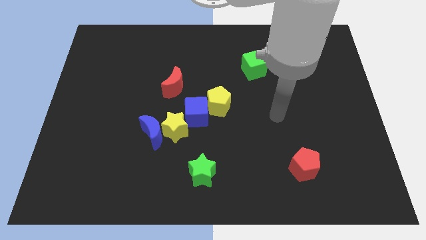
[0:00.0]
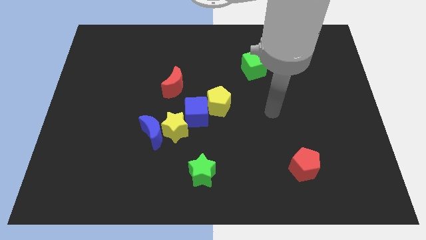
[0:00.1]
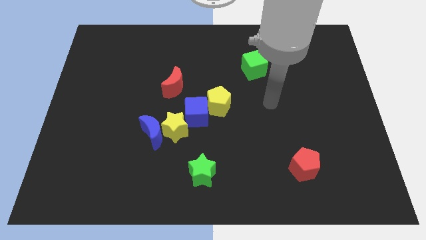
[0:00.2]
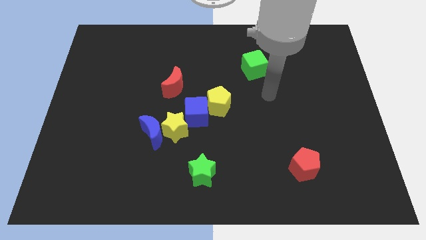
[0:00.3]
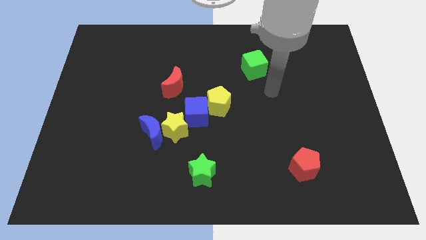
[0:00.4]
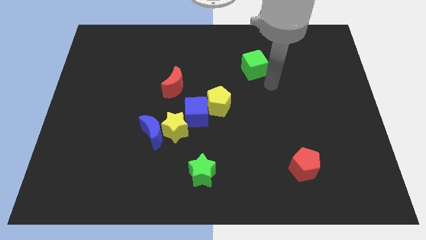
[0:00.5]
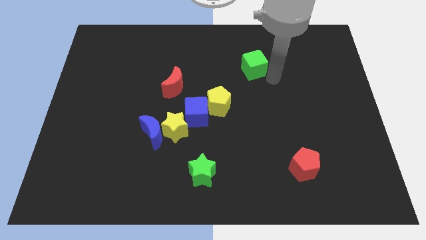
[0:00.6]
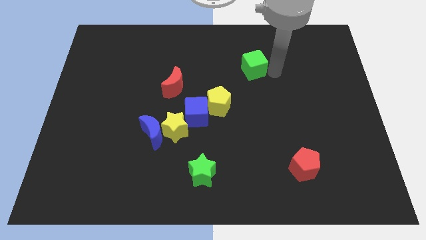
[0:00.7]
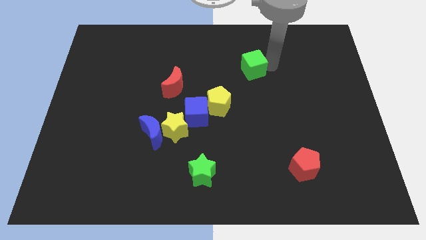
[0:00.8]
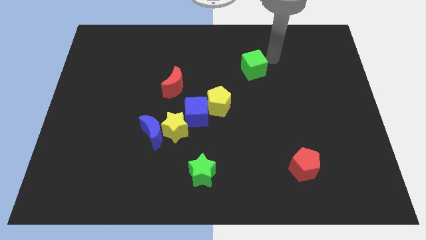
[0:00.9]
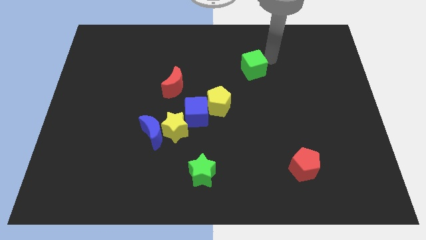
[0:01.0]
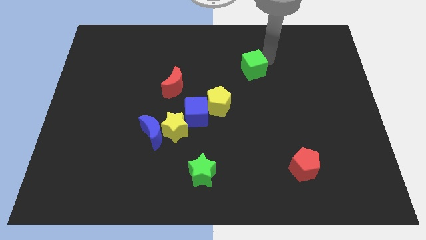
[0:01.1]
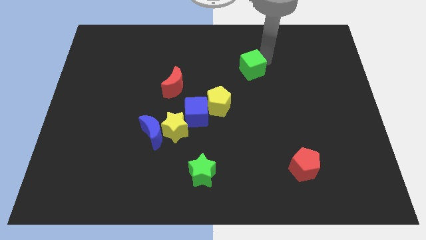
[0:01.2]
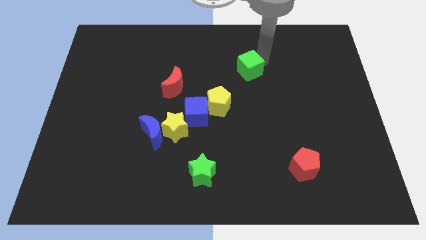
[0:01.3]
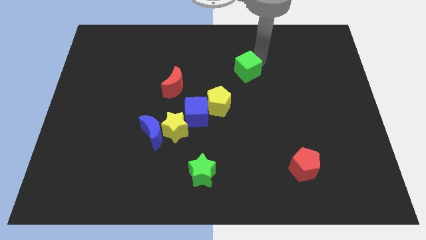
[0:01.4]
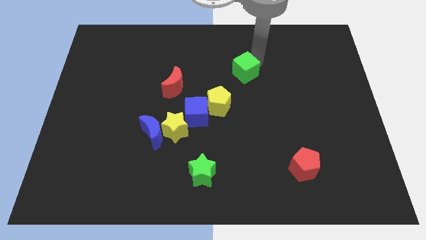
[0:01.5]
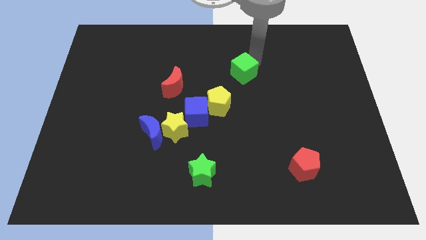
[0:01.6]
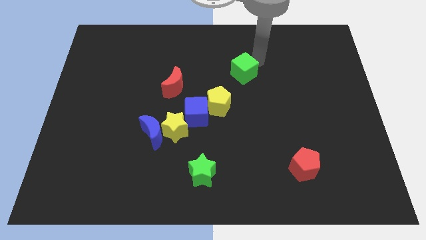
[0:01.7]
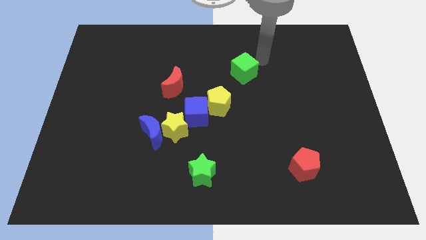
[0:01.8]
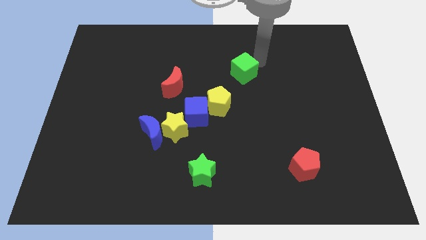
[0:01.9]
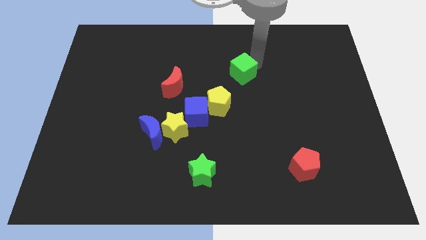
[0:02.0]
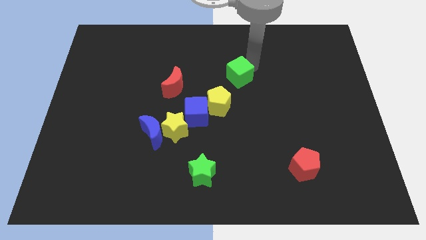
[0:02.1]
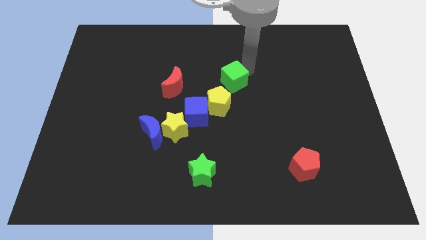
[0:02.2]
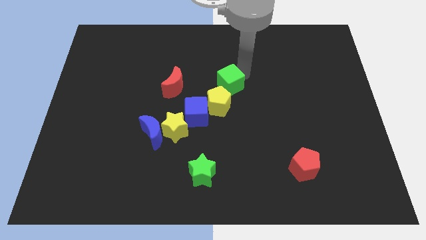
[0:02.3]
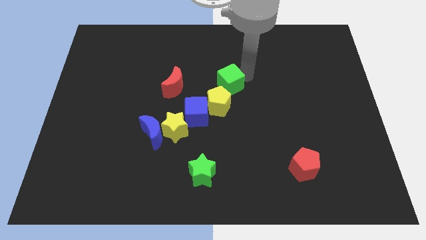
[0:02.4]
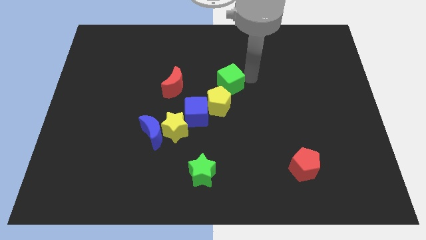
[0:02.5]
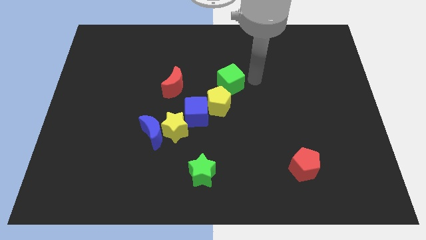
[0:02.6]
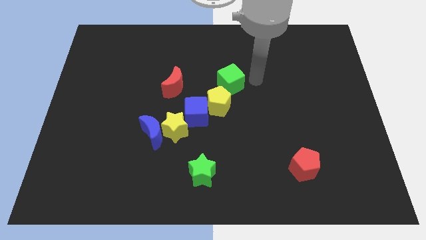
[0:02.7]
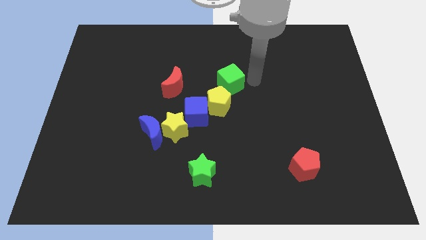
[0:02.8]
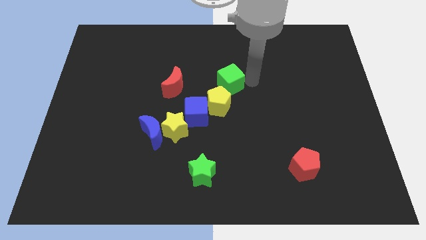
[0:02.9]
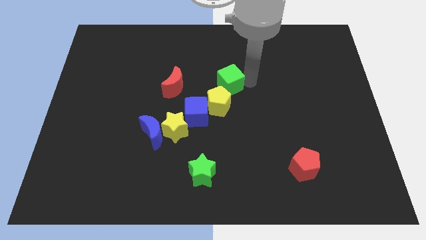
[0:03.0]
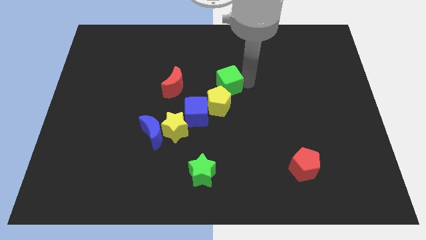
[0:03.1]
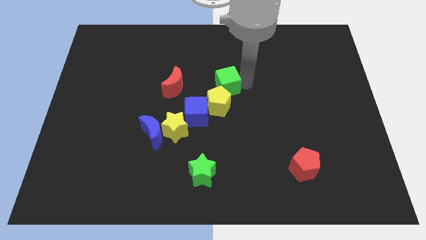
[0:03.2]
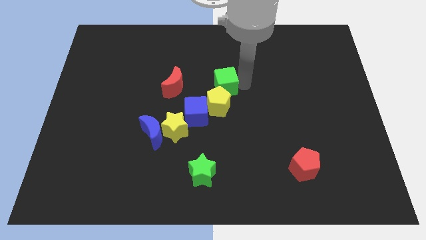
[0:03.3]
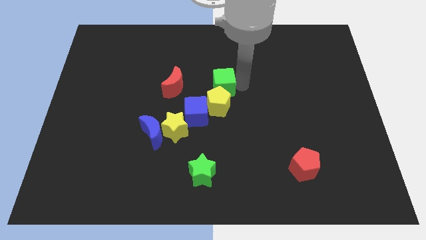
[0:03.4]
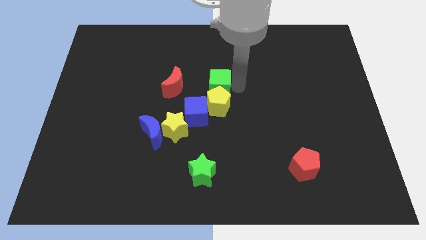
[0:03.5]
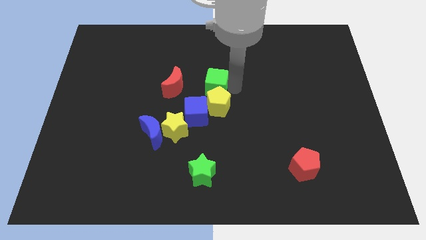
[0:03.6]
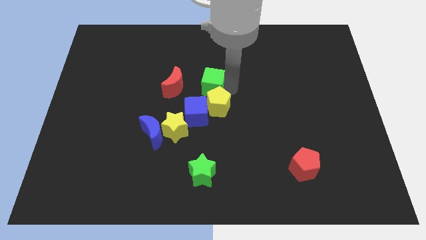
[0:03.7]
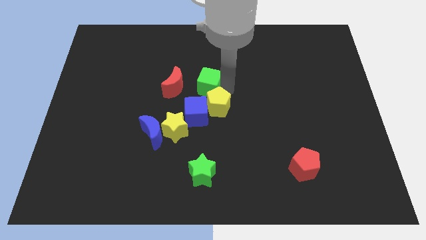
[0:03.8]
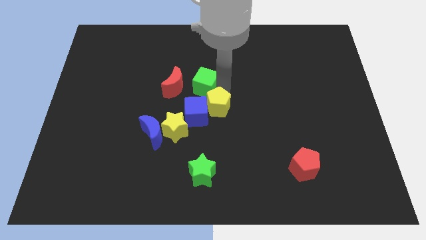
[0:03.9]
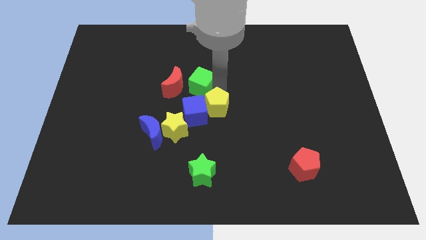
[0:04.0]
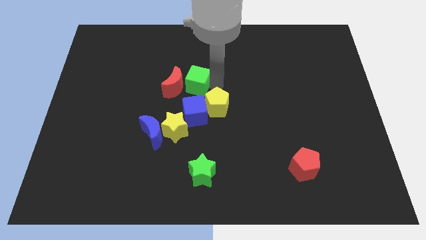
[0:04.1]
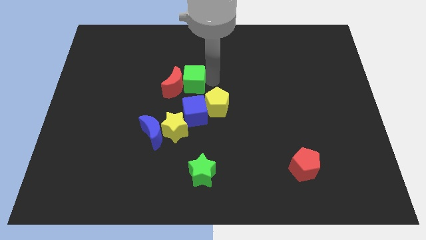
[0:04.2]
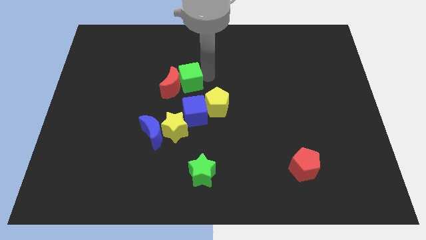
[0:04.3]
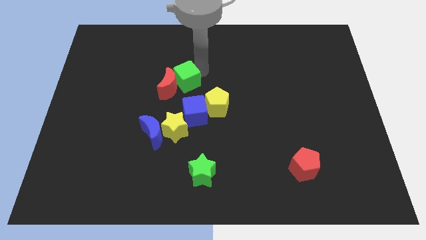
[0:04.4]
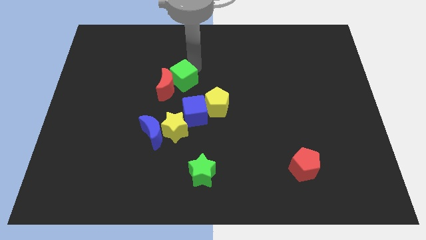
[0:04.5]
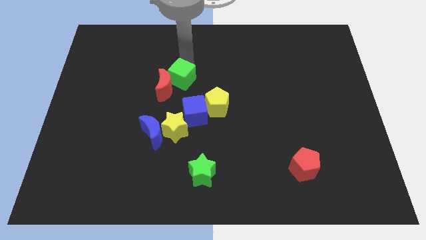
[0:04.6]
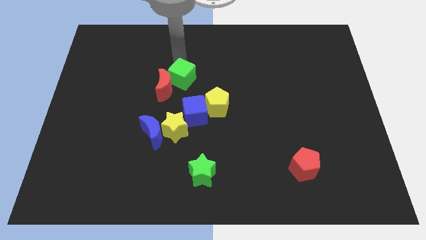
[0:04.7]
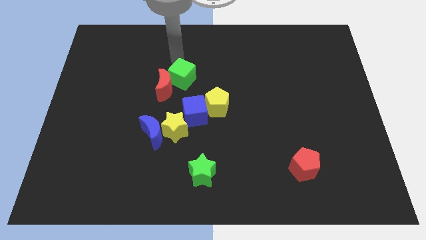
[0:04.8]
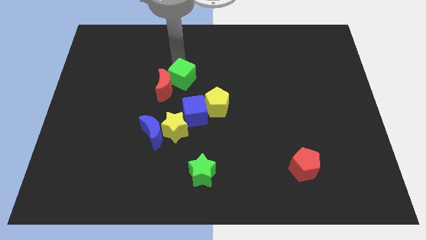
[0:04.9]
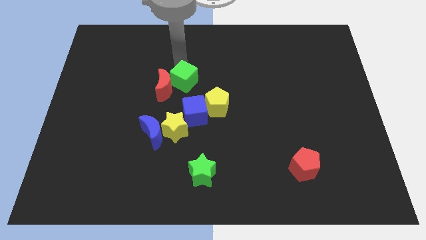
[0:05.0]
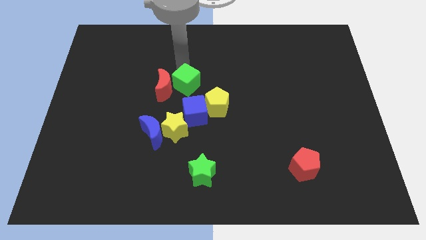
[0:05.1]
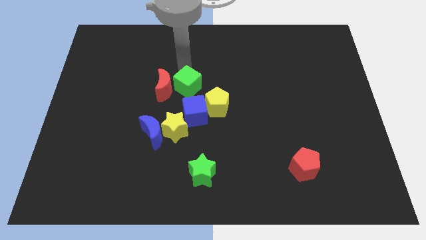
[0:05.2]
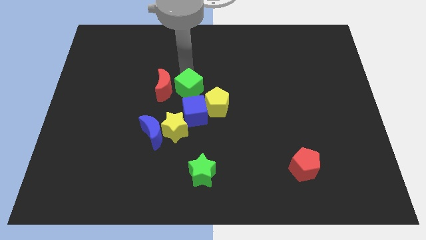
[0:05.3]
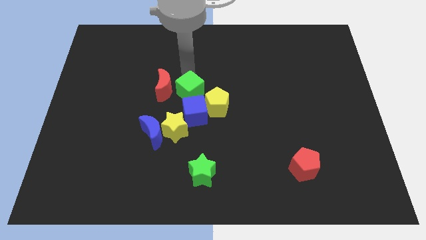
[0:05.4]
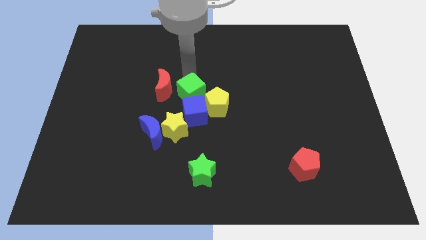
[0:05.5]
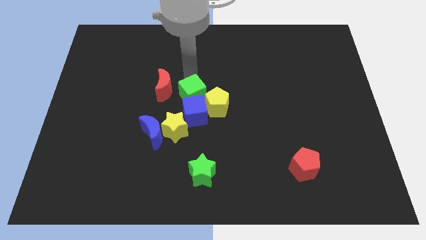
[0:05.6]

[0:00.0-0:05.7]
move the green cube close to the blue cube

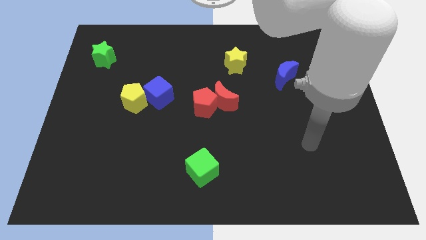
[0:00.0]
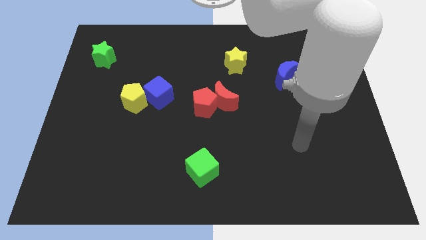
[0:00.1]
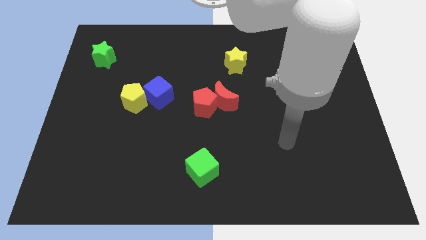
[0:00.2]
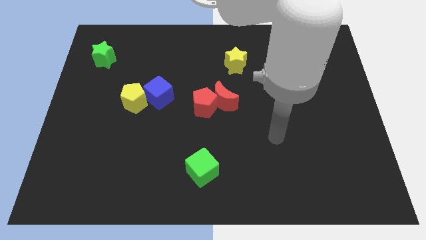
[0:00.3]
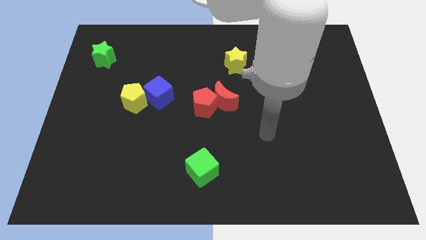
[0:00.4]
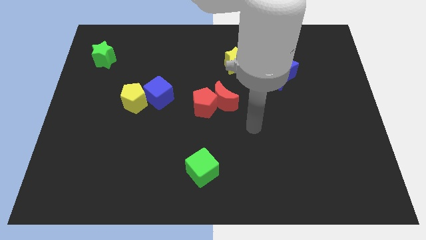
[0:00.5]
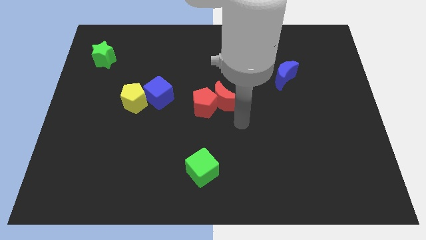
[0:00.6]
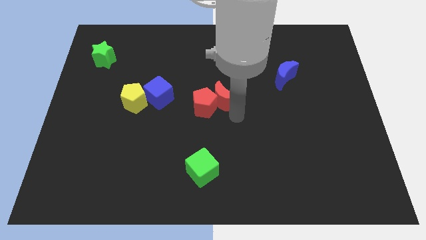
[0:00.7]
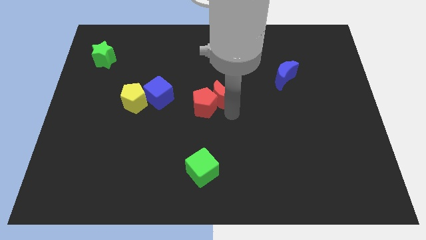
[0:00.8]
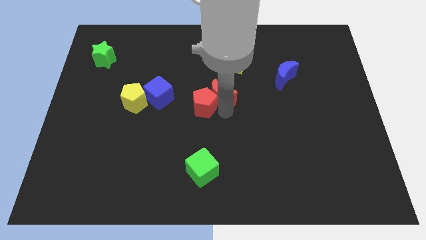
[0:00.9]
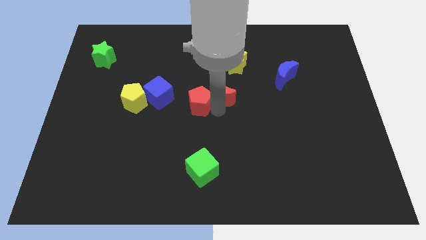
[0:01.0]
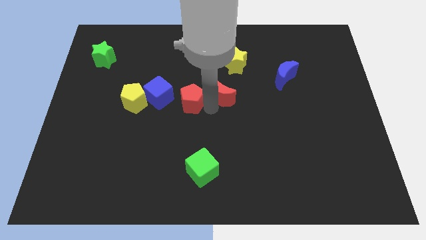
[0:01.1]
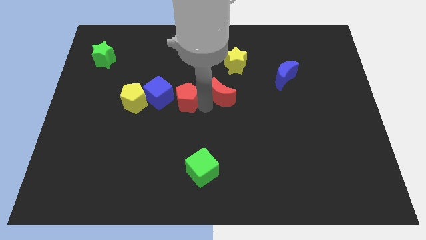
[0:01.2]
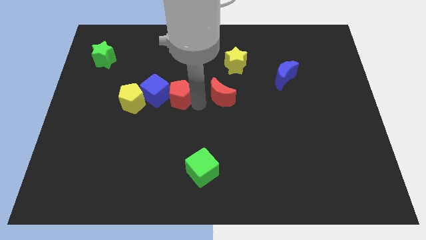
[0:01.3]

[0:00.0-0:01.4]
move the red pentagon close to the blue cube
